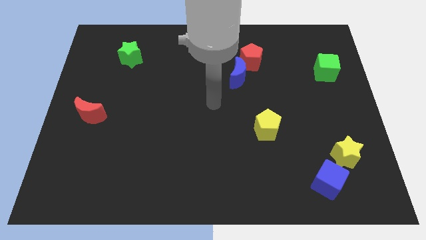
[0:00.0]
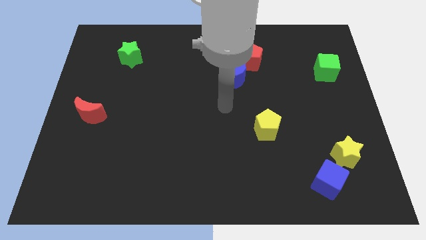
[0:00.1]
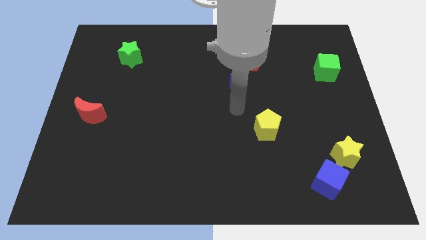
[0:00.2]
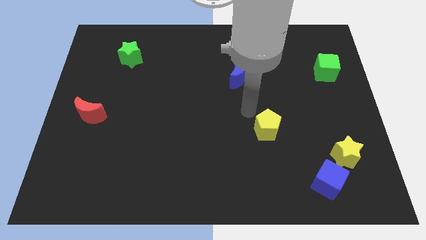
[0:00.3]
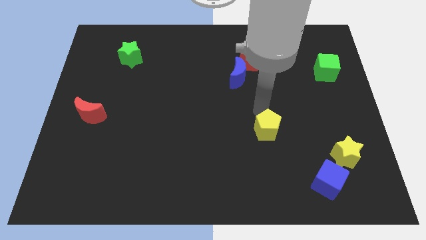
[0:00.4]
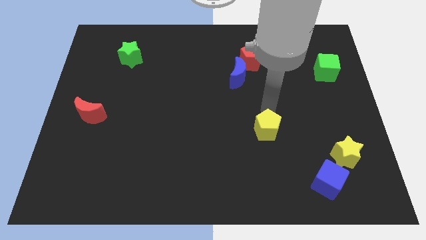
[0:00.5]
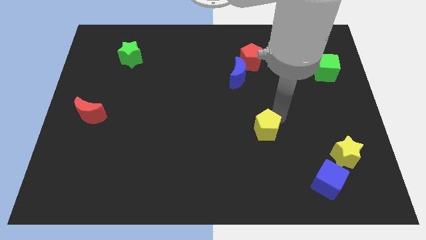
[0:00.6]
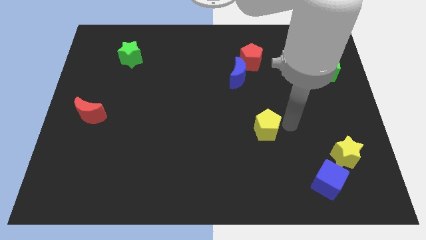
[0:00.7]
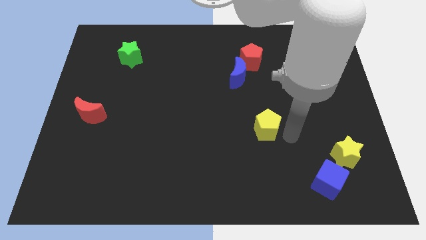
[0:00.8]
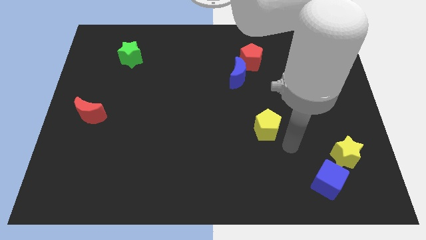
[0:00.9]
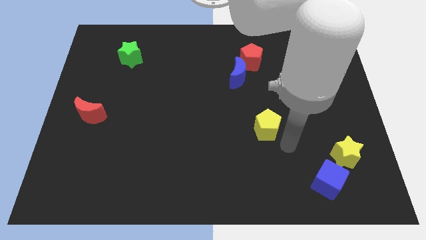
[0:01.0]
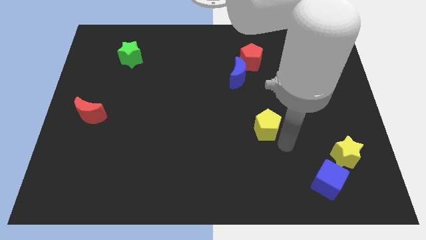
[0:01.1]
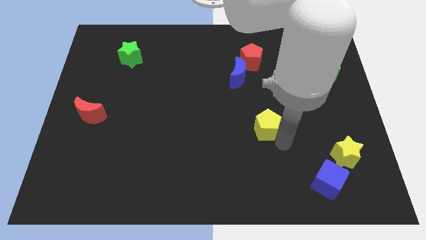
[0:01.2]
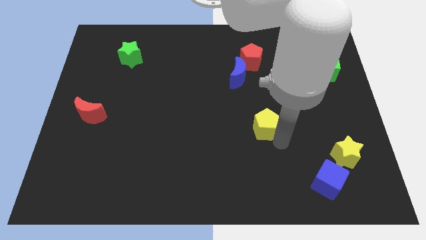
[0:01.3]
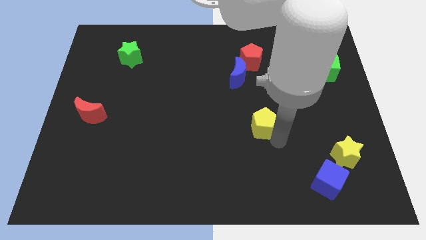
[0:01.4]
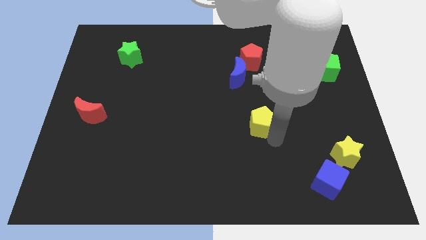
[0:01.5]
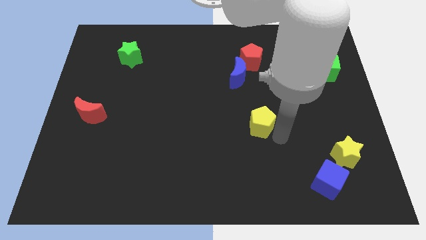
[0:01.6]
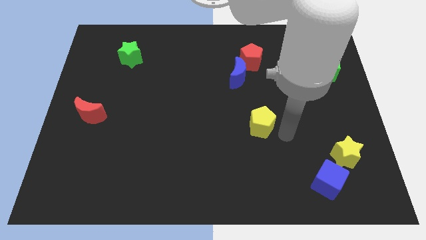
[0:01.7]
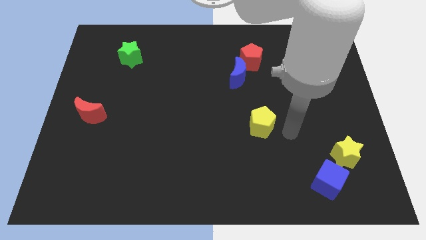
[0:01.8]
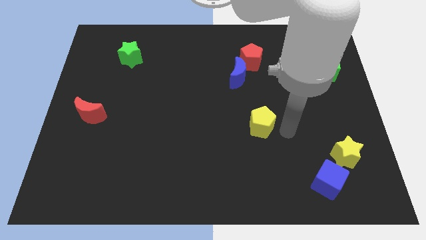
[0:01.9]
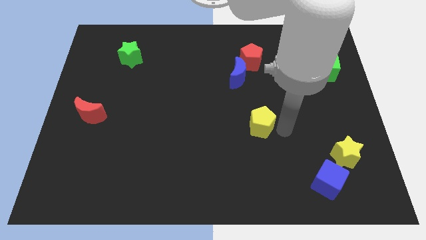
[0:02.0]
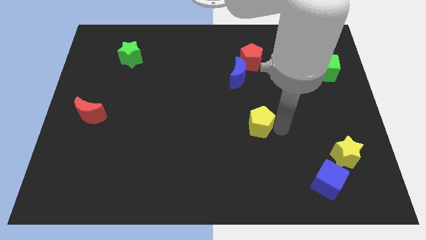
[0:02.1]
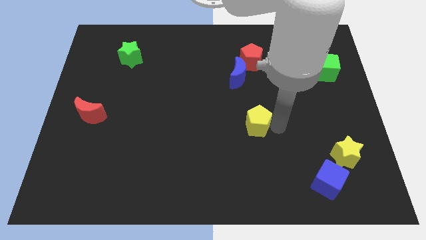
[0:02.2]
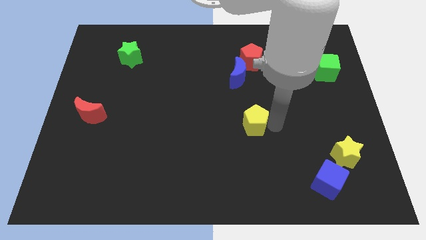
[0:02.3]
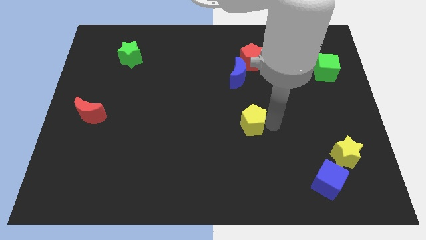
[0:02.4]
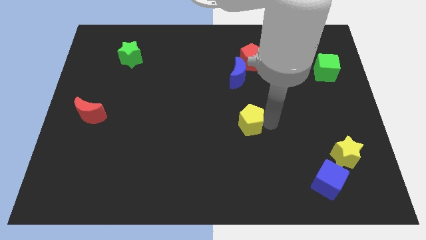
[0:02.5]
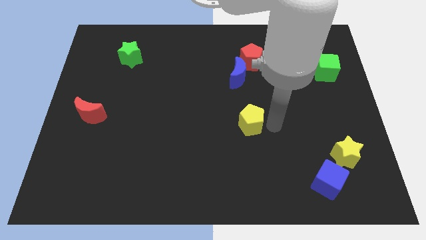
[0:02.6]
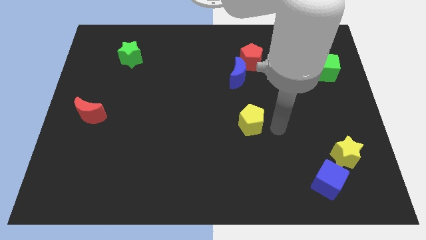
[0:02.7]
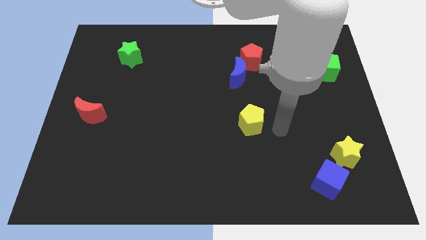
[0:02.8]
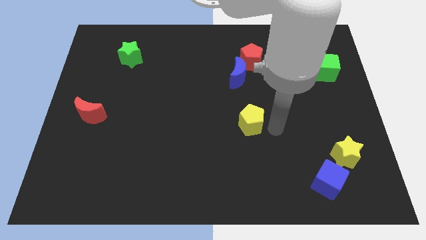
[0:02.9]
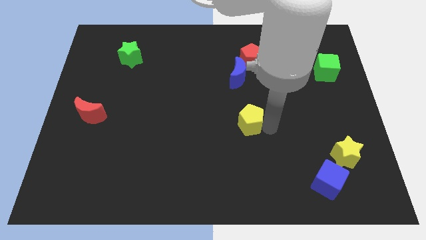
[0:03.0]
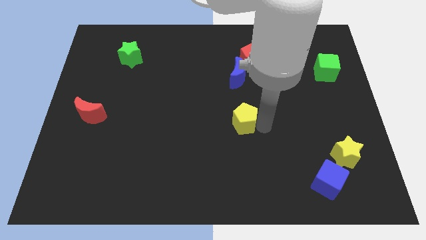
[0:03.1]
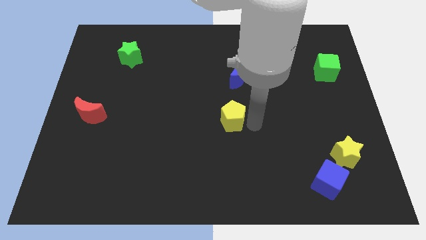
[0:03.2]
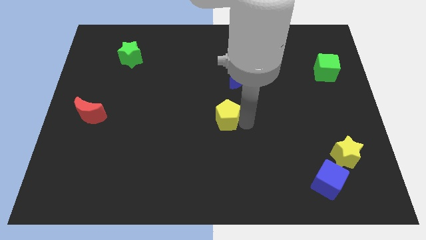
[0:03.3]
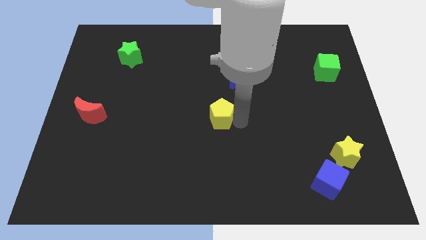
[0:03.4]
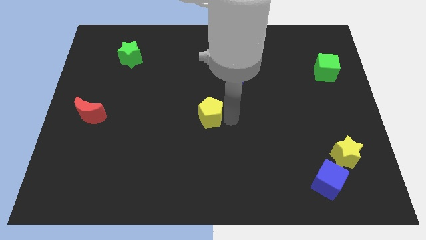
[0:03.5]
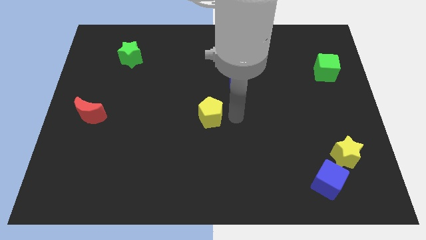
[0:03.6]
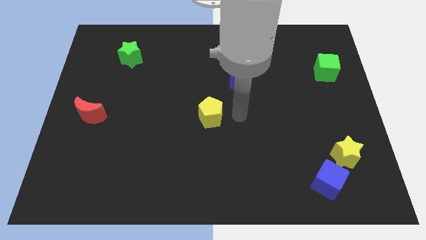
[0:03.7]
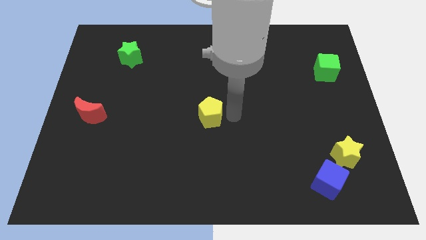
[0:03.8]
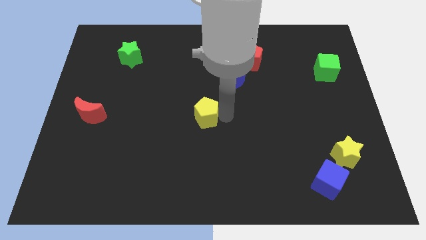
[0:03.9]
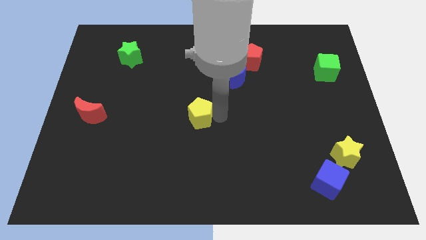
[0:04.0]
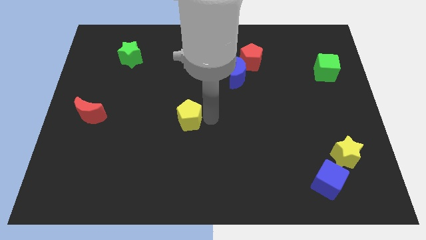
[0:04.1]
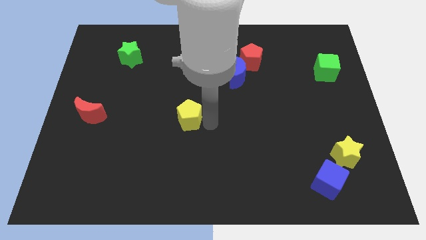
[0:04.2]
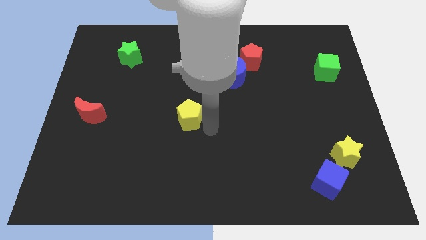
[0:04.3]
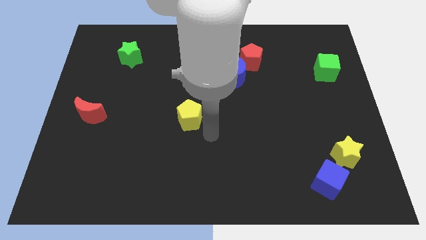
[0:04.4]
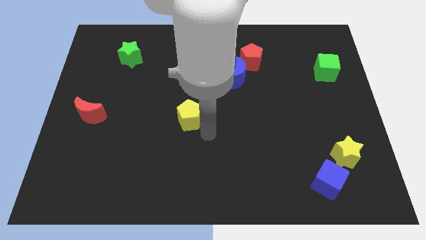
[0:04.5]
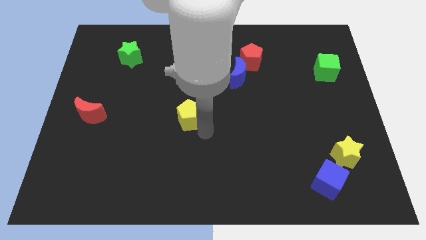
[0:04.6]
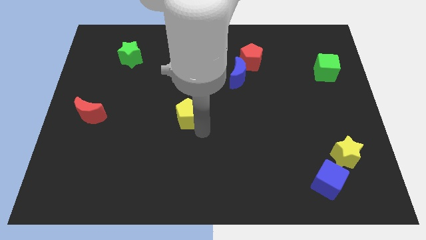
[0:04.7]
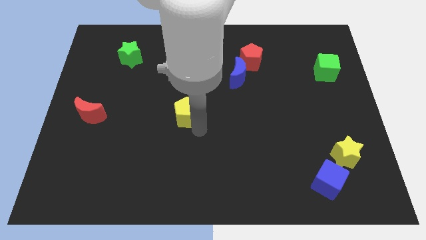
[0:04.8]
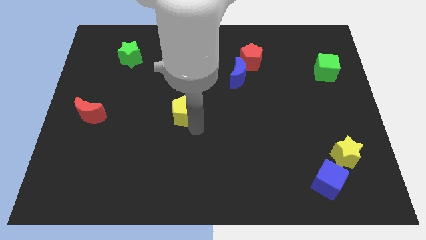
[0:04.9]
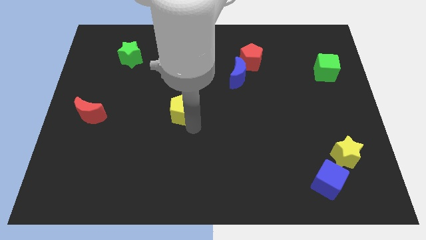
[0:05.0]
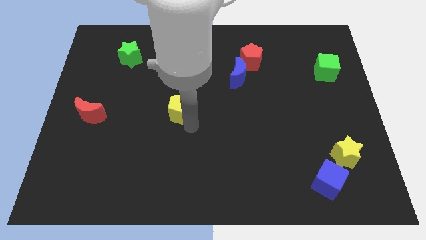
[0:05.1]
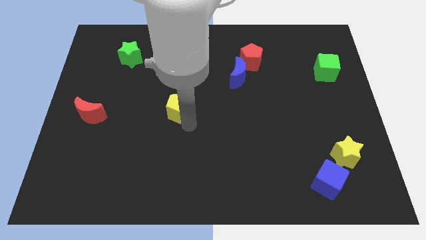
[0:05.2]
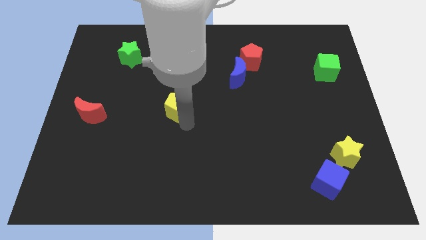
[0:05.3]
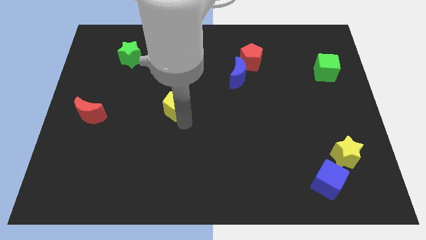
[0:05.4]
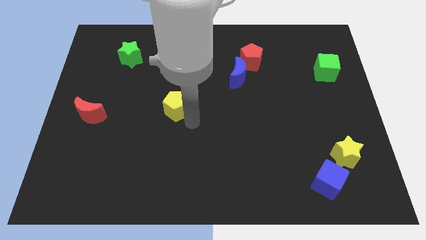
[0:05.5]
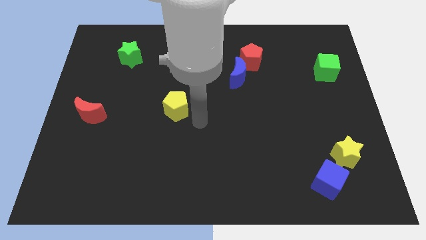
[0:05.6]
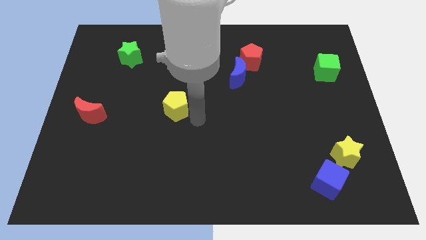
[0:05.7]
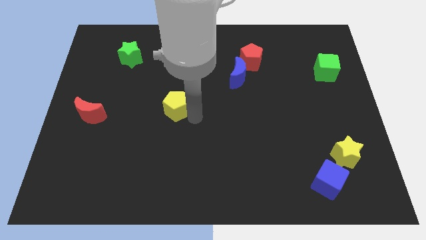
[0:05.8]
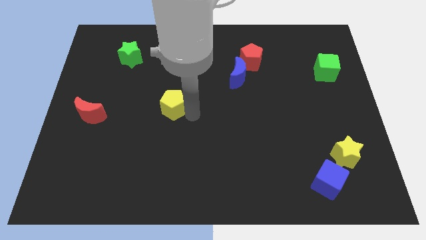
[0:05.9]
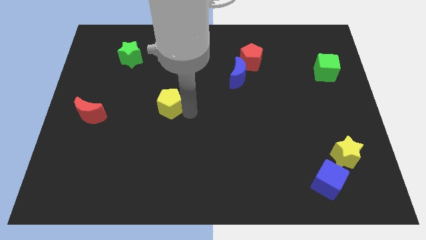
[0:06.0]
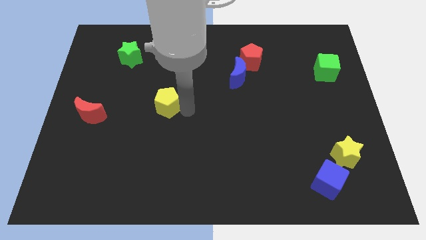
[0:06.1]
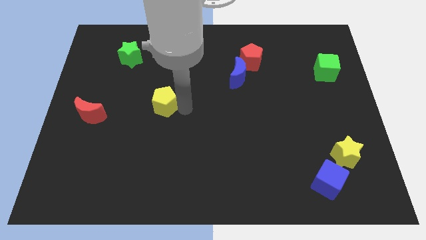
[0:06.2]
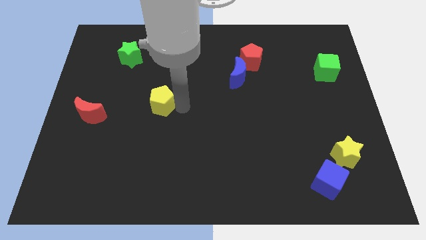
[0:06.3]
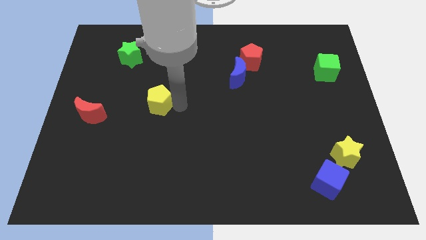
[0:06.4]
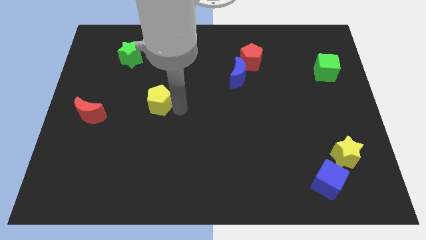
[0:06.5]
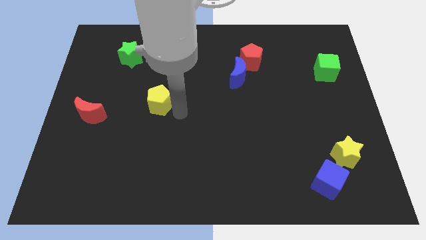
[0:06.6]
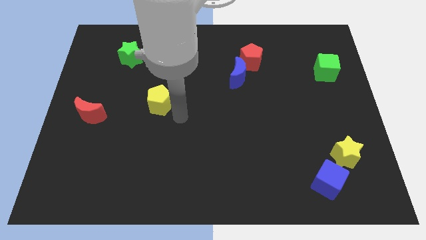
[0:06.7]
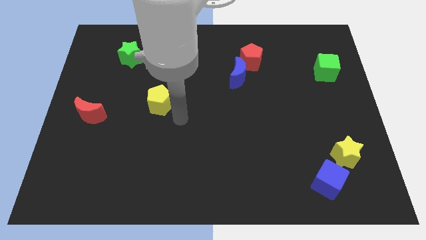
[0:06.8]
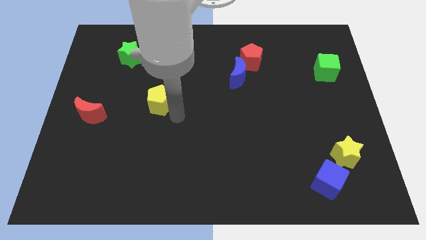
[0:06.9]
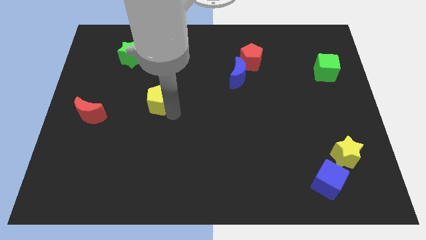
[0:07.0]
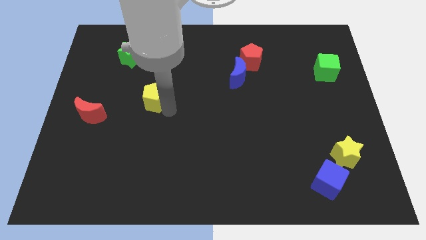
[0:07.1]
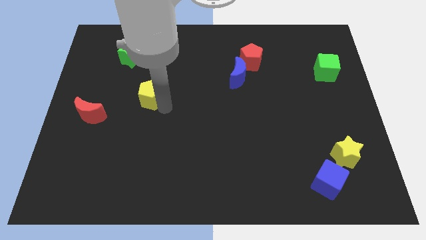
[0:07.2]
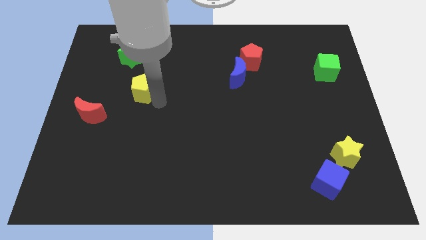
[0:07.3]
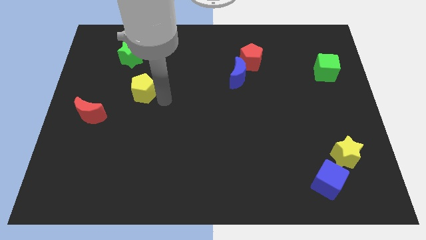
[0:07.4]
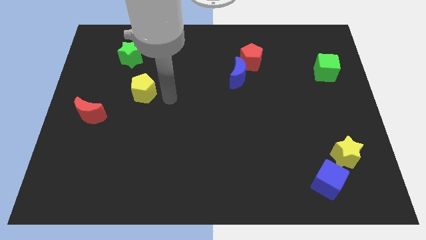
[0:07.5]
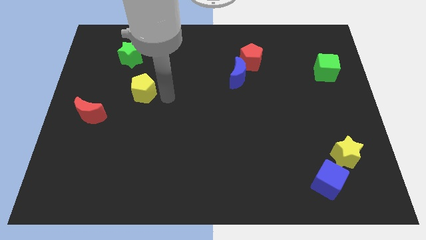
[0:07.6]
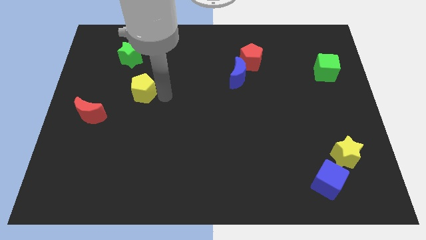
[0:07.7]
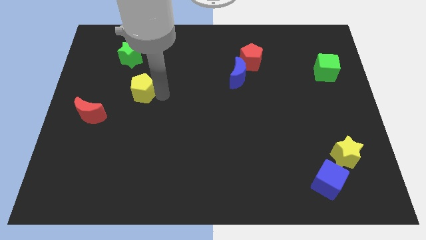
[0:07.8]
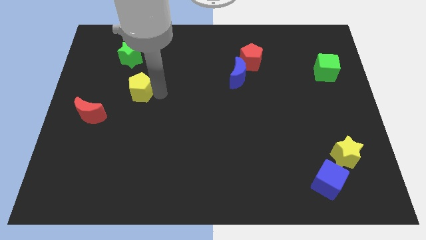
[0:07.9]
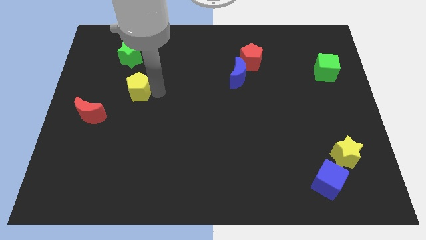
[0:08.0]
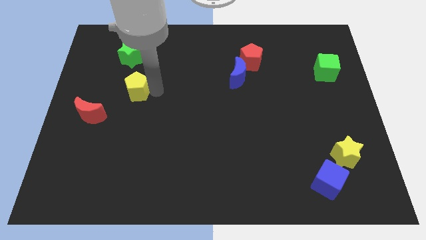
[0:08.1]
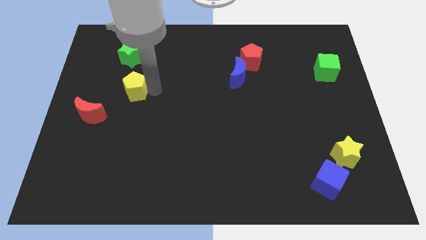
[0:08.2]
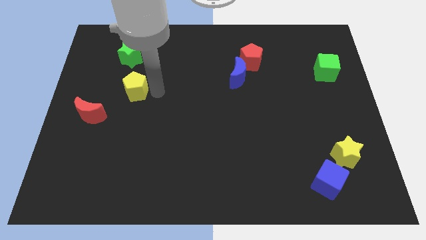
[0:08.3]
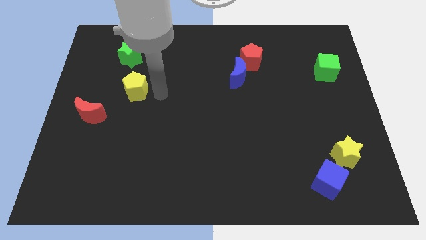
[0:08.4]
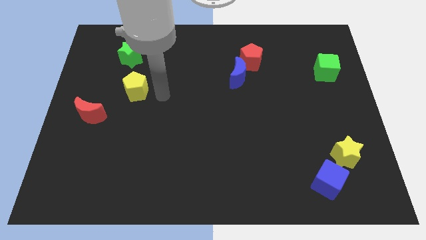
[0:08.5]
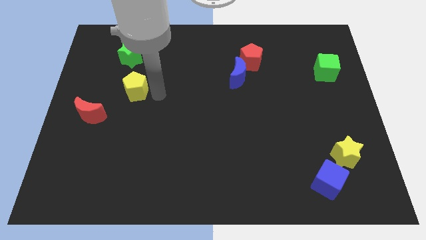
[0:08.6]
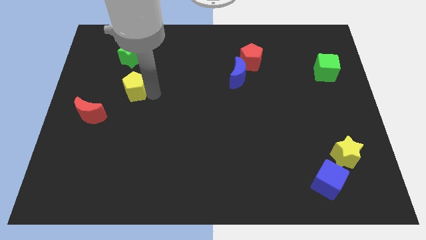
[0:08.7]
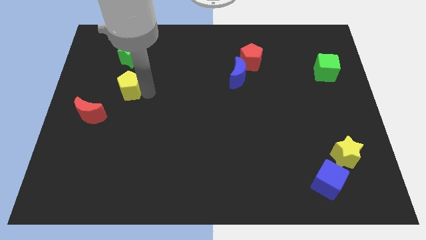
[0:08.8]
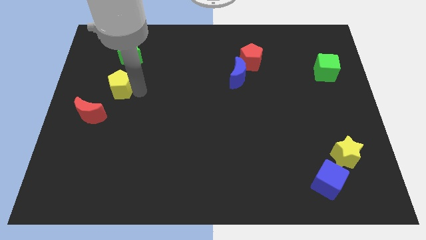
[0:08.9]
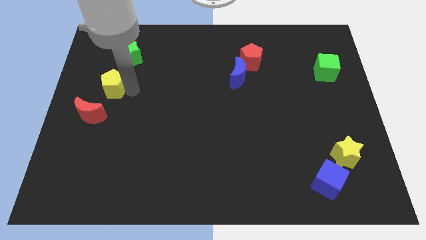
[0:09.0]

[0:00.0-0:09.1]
push the yellow pentagon to the top of the red moon
